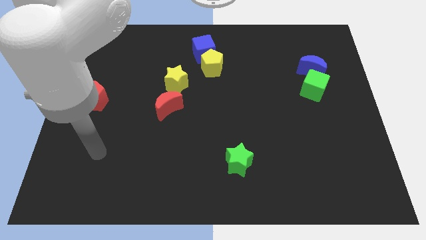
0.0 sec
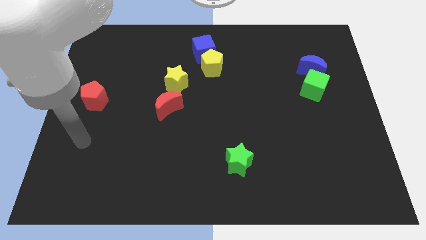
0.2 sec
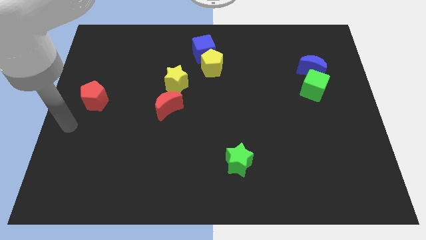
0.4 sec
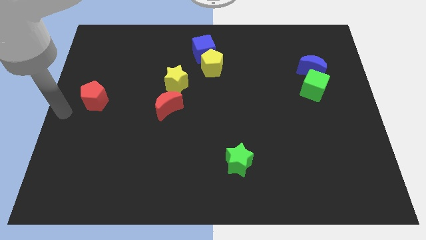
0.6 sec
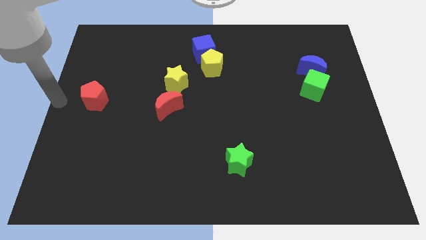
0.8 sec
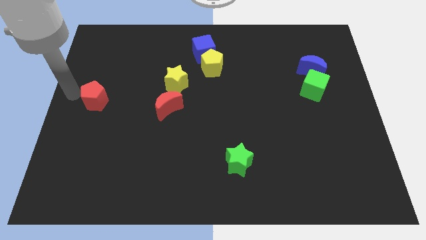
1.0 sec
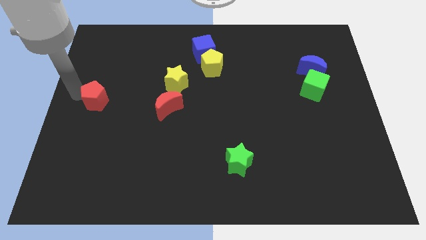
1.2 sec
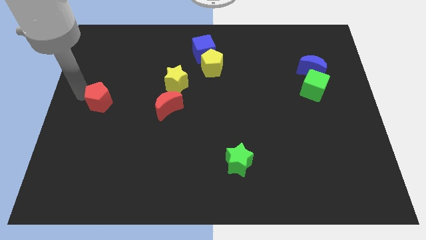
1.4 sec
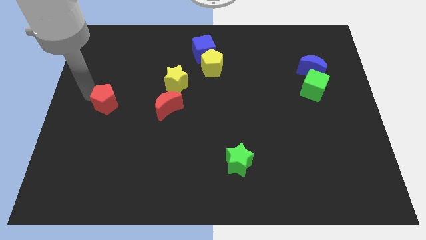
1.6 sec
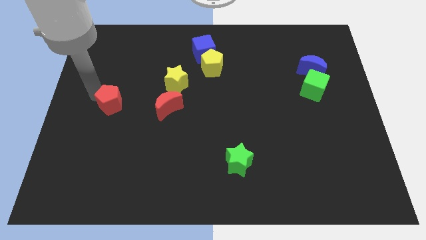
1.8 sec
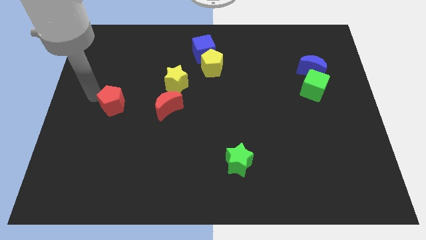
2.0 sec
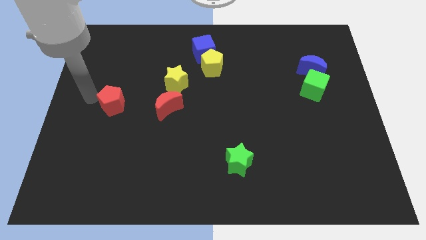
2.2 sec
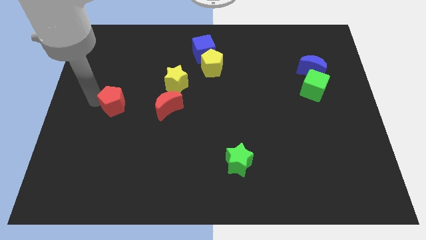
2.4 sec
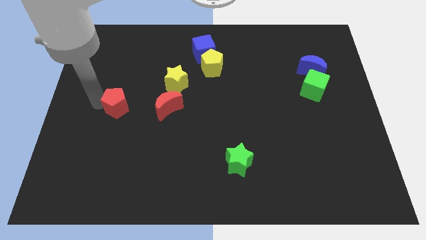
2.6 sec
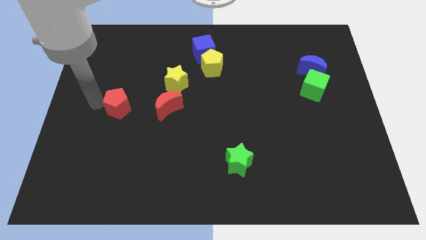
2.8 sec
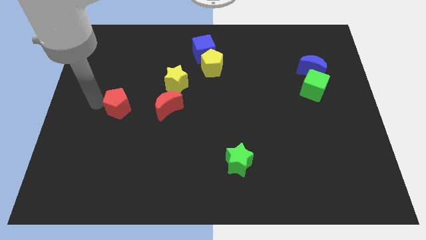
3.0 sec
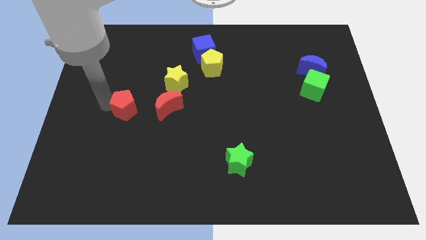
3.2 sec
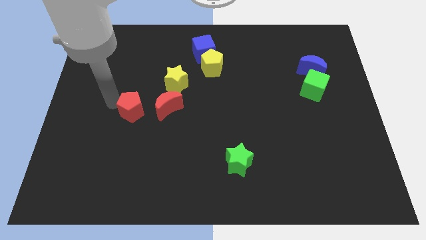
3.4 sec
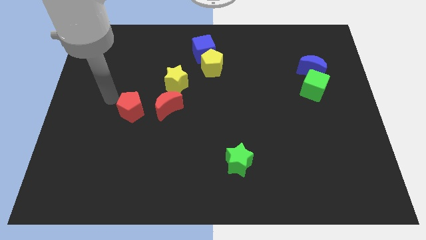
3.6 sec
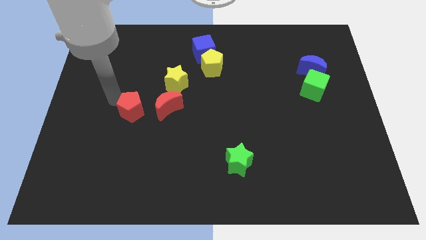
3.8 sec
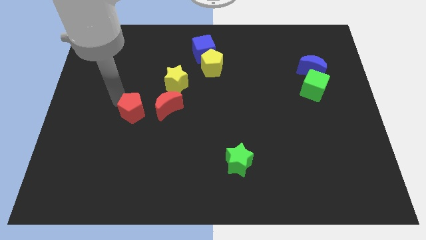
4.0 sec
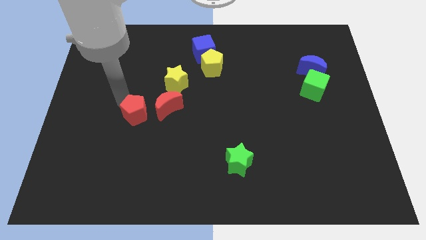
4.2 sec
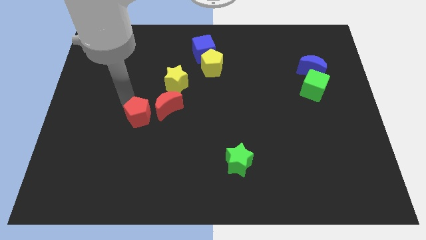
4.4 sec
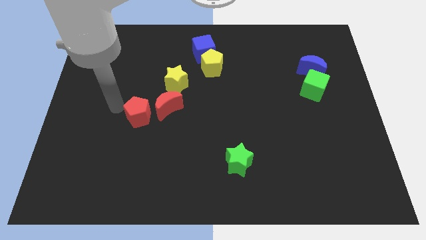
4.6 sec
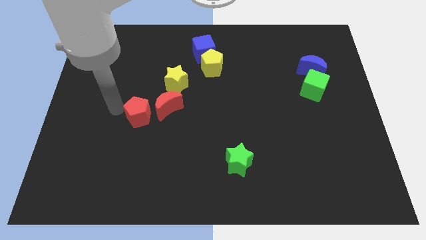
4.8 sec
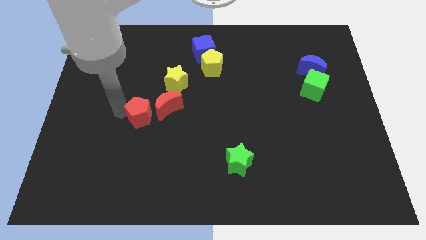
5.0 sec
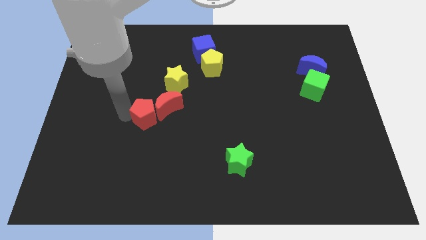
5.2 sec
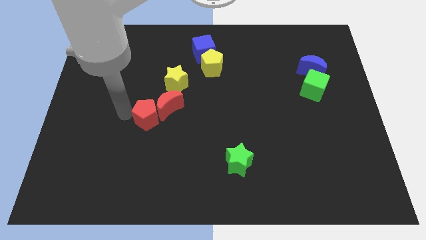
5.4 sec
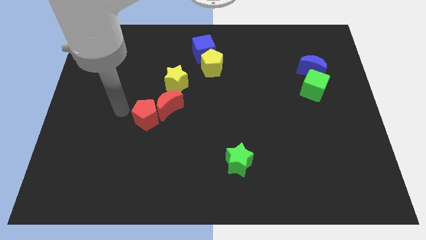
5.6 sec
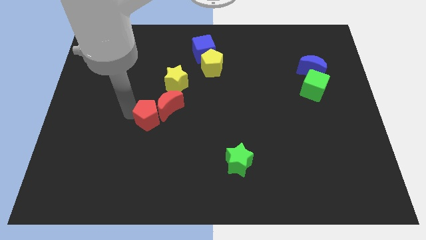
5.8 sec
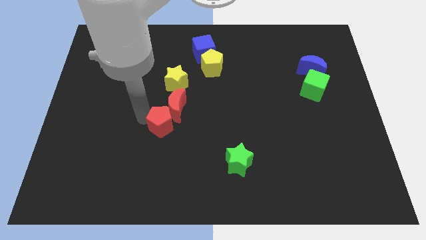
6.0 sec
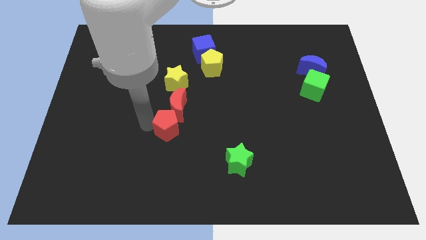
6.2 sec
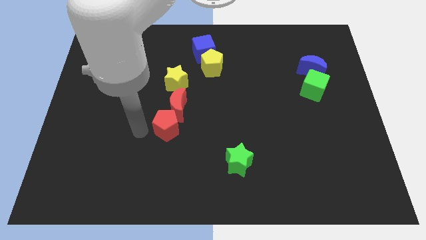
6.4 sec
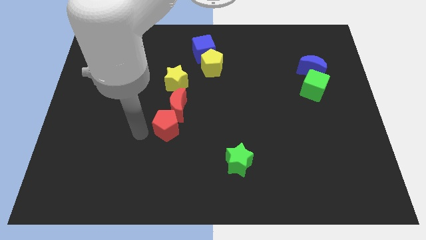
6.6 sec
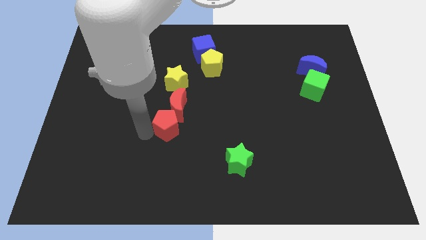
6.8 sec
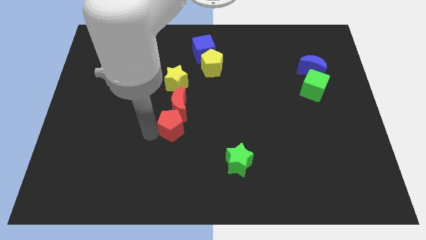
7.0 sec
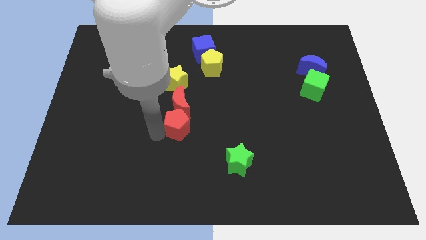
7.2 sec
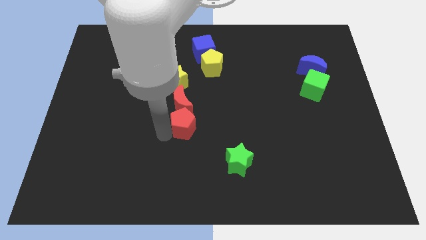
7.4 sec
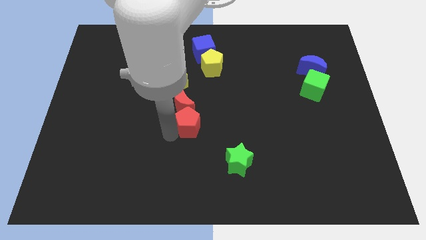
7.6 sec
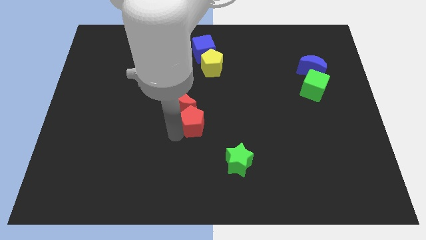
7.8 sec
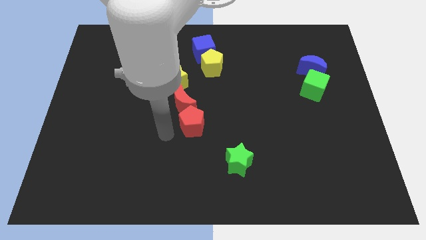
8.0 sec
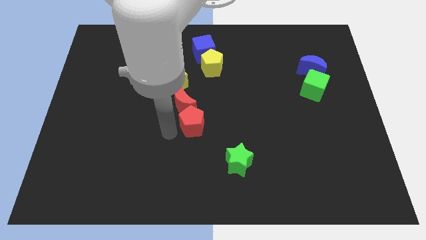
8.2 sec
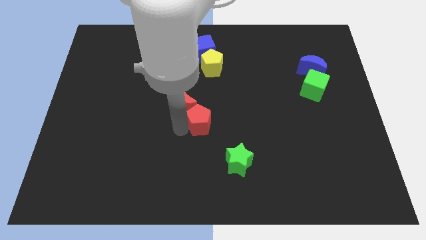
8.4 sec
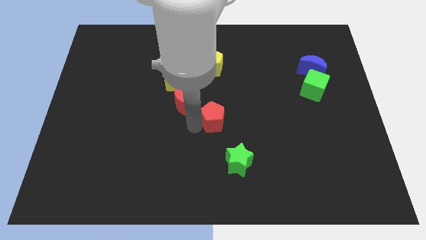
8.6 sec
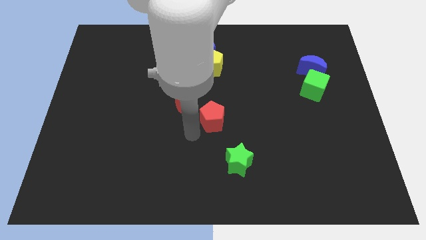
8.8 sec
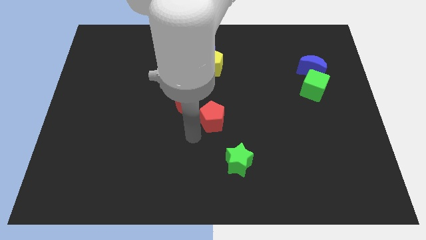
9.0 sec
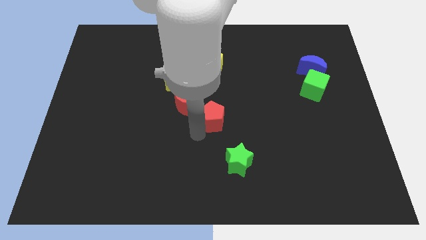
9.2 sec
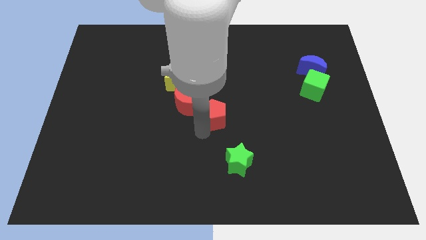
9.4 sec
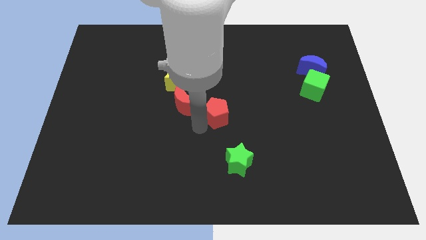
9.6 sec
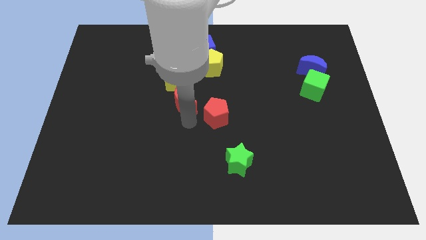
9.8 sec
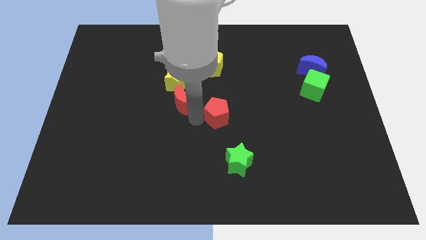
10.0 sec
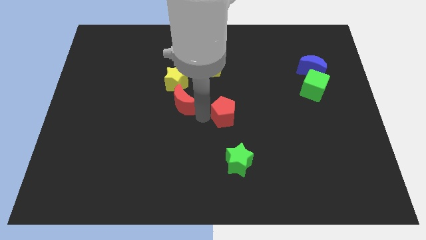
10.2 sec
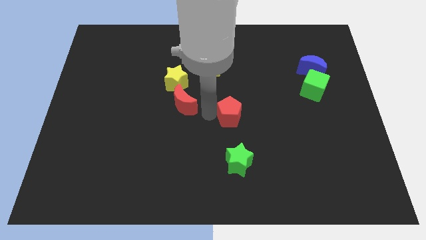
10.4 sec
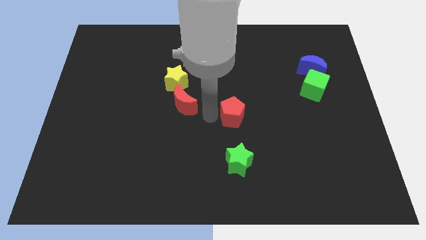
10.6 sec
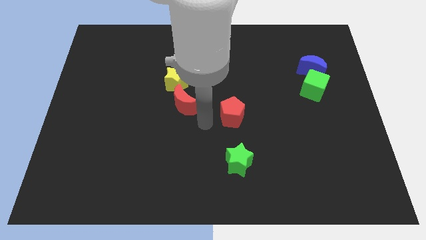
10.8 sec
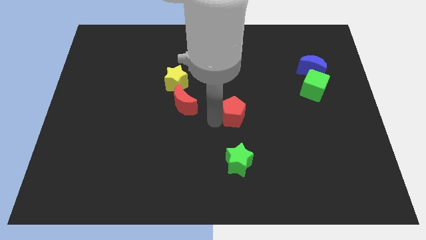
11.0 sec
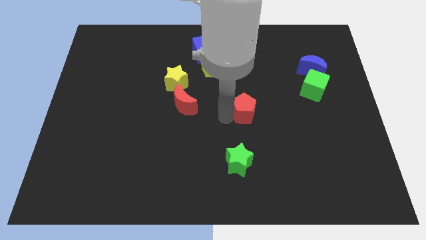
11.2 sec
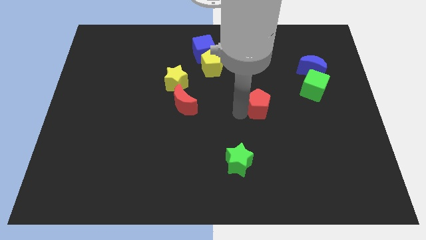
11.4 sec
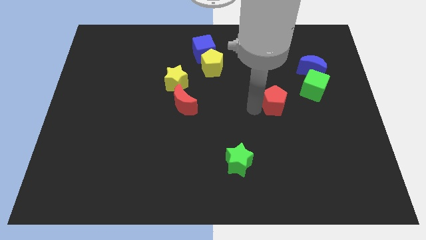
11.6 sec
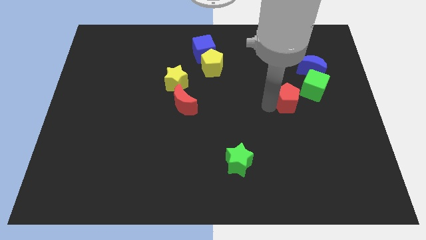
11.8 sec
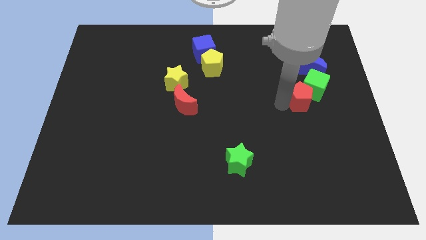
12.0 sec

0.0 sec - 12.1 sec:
slide the red pentagon to the green cube

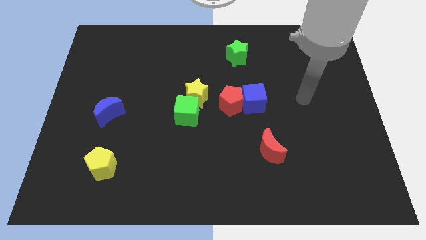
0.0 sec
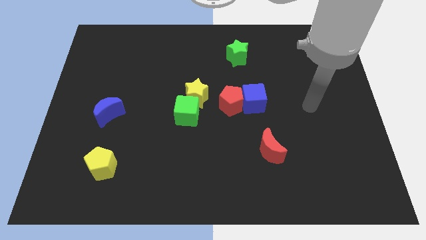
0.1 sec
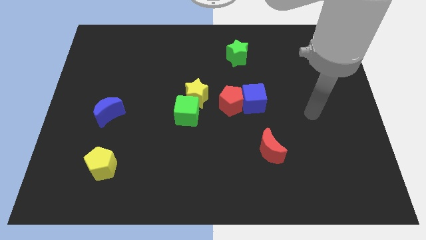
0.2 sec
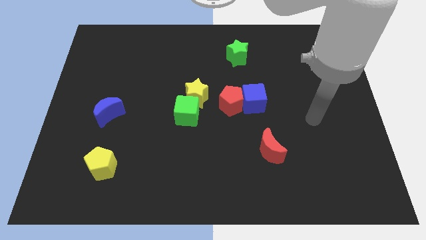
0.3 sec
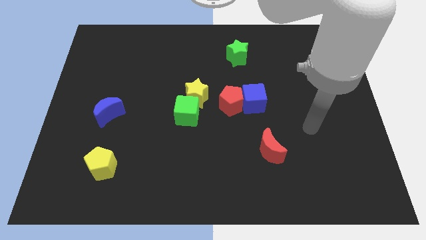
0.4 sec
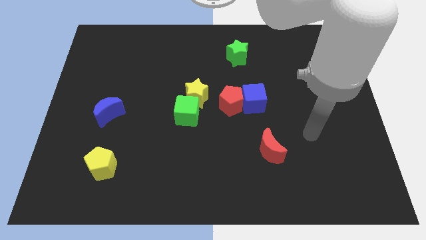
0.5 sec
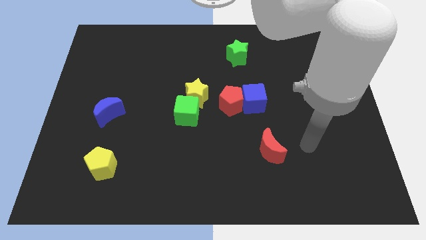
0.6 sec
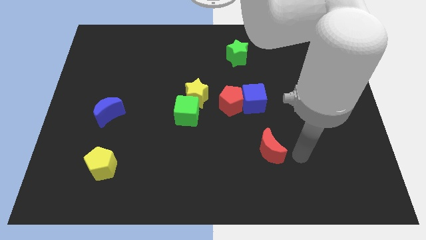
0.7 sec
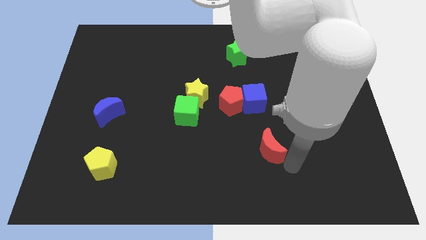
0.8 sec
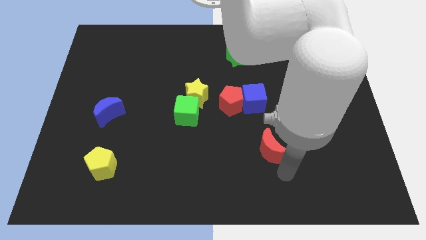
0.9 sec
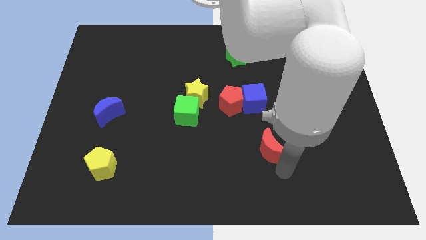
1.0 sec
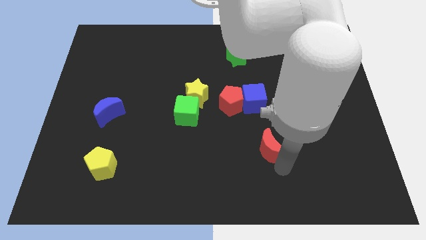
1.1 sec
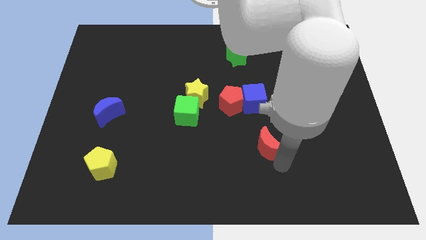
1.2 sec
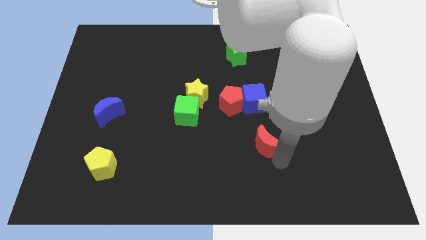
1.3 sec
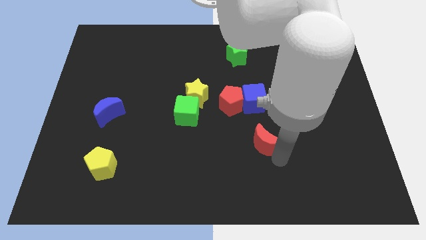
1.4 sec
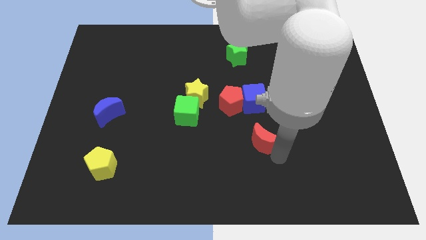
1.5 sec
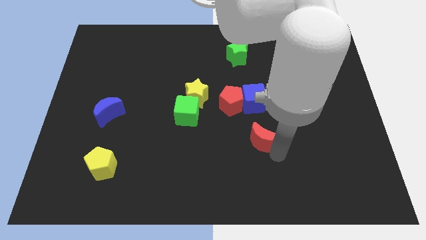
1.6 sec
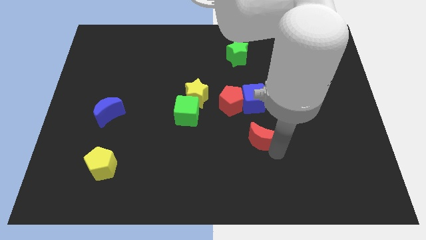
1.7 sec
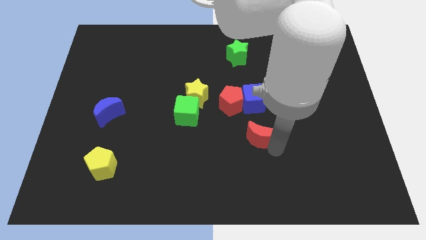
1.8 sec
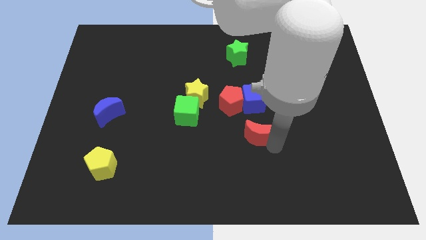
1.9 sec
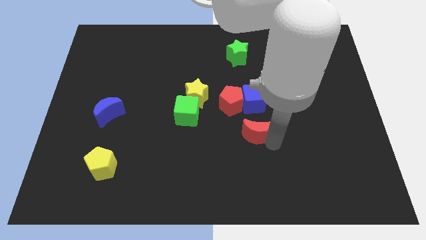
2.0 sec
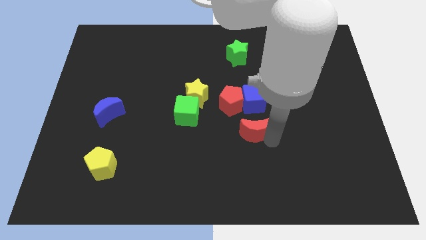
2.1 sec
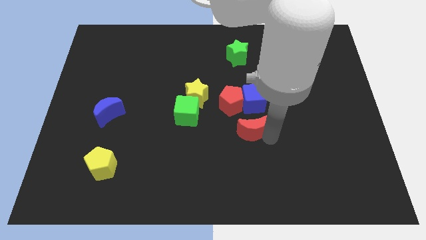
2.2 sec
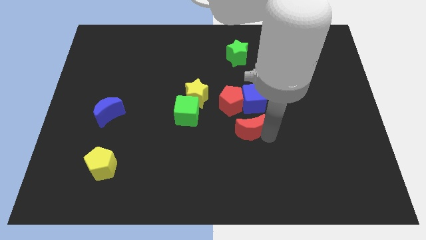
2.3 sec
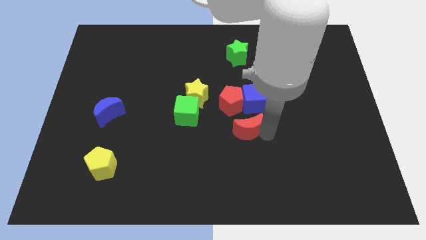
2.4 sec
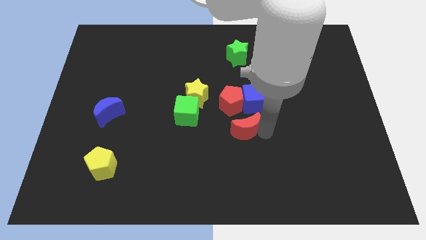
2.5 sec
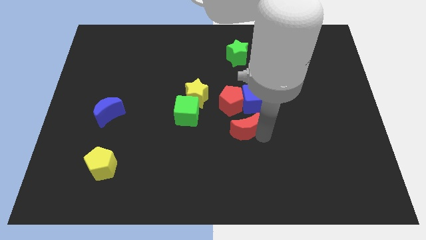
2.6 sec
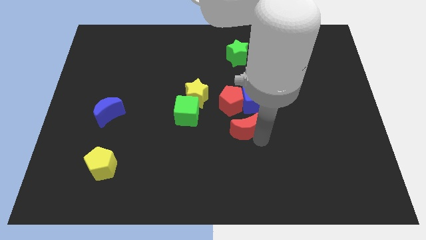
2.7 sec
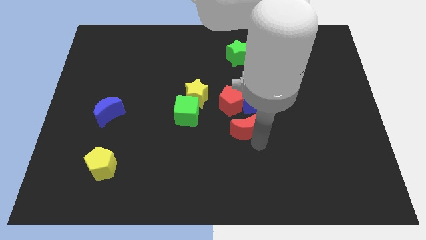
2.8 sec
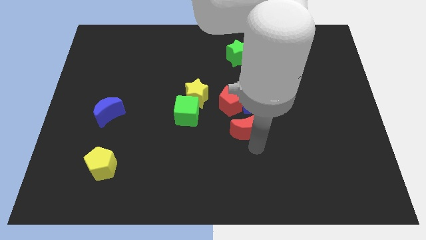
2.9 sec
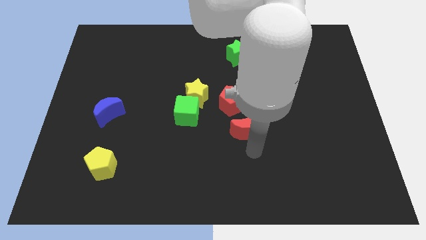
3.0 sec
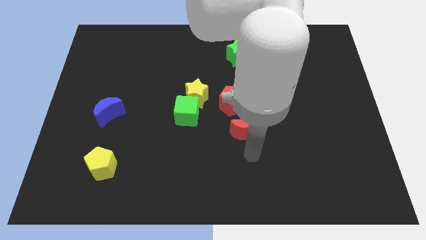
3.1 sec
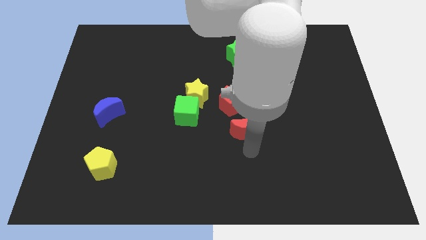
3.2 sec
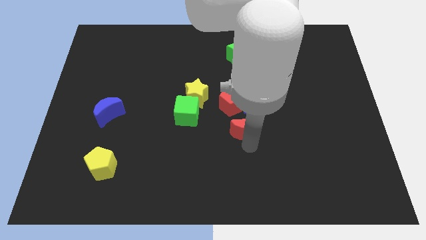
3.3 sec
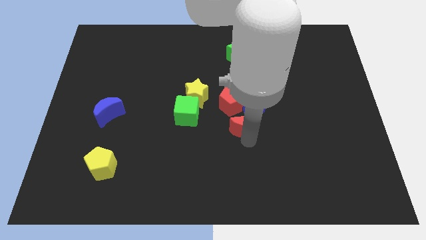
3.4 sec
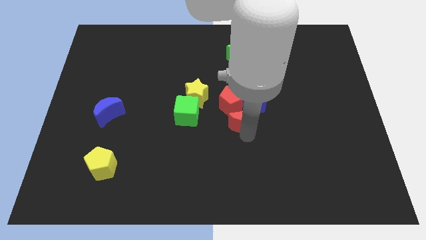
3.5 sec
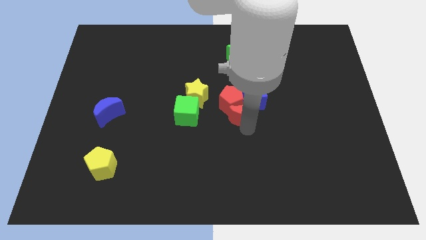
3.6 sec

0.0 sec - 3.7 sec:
move the red moon towards the red pentagon
